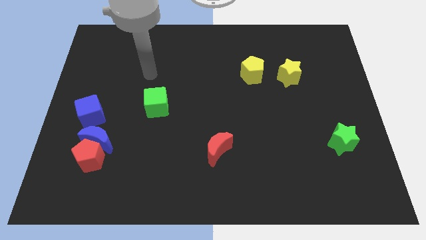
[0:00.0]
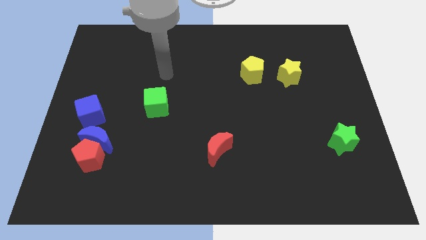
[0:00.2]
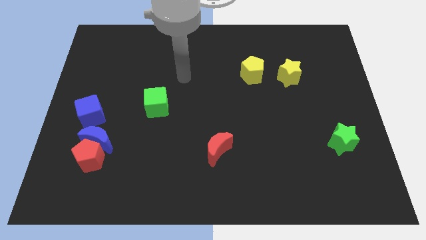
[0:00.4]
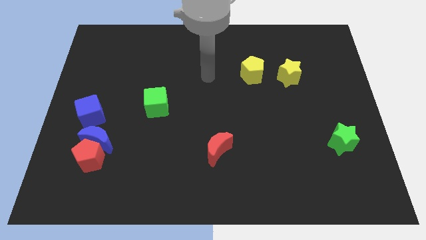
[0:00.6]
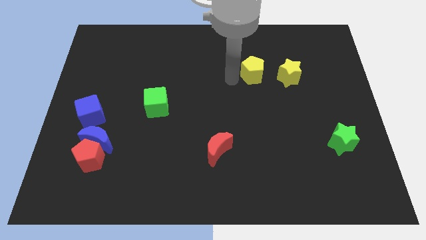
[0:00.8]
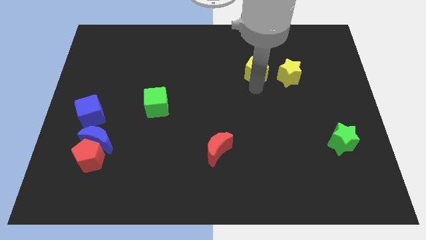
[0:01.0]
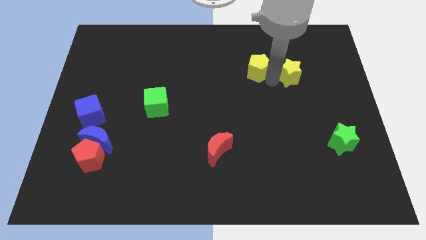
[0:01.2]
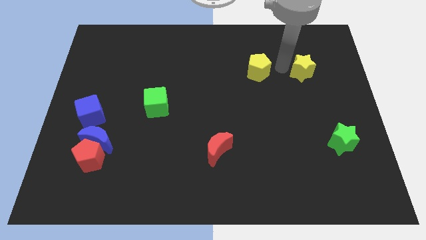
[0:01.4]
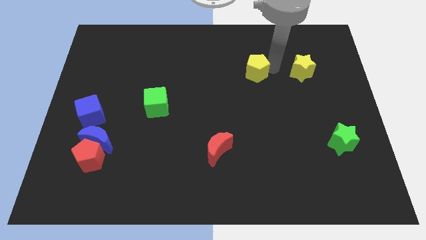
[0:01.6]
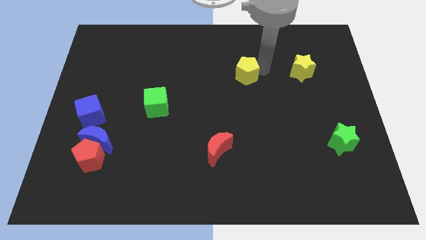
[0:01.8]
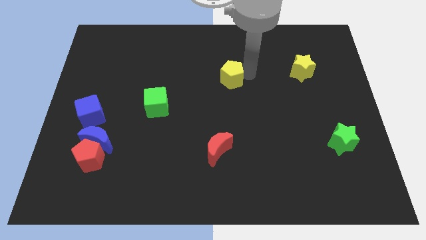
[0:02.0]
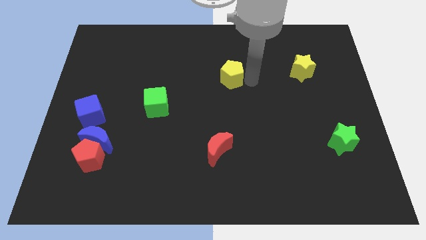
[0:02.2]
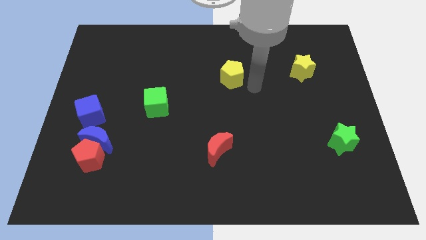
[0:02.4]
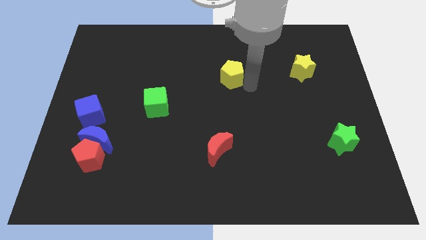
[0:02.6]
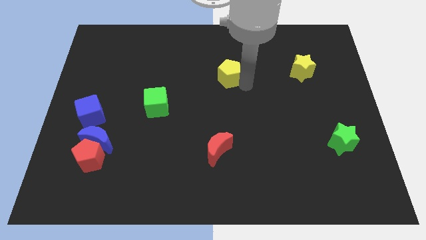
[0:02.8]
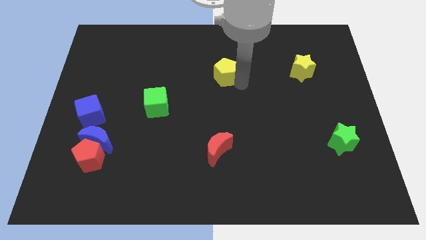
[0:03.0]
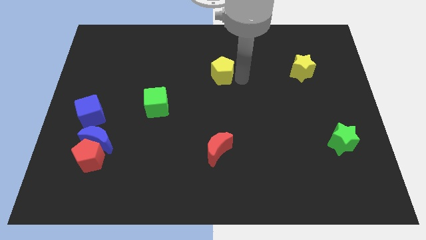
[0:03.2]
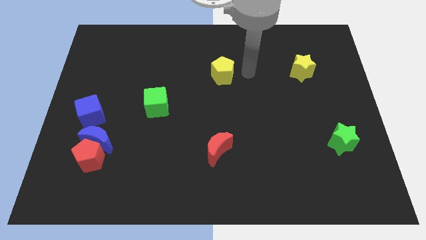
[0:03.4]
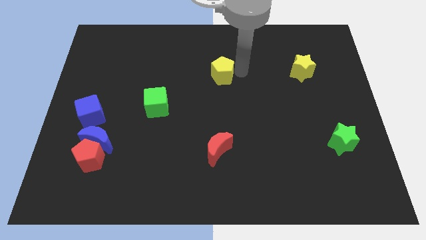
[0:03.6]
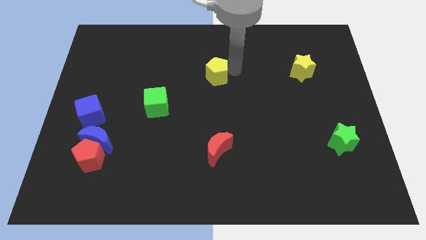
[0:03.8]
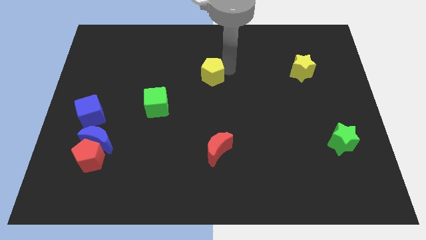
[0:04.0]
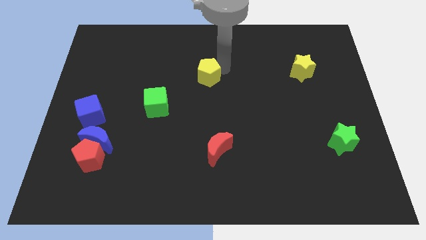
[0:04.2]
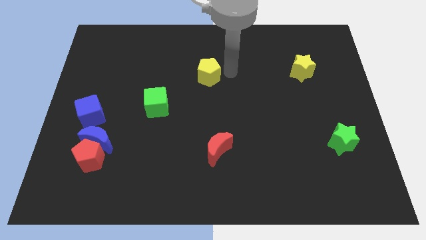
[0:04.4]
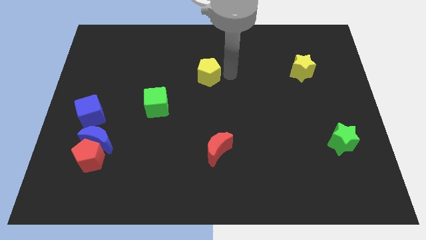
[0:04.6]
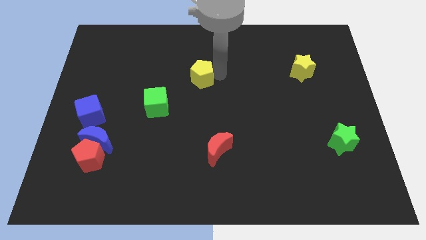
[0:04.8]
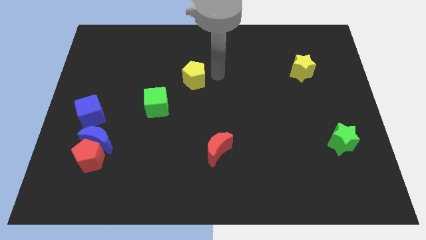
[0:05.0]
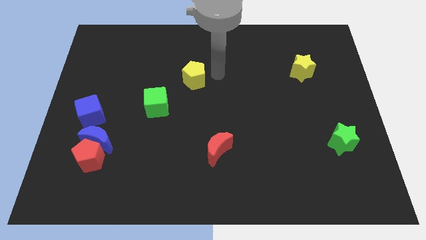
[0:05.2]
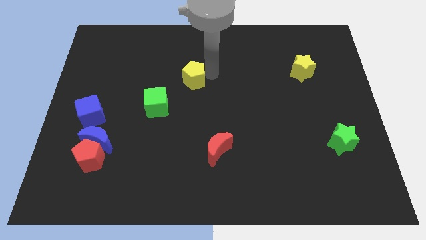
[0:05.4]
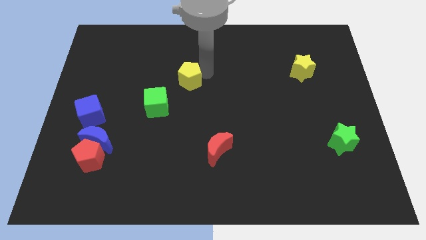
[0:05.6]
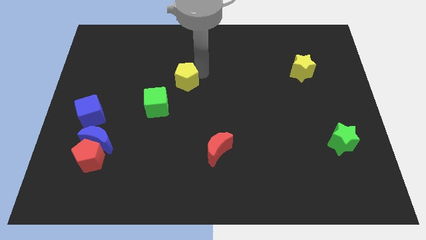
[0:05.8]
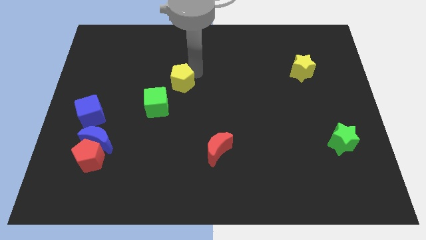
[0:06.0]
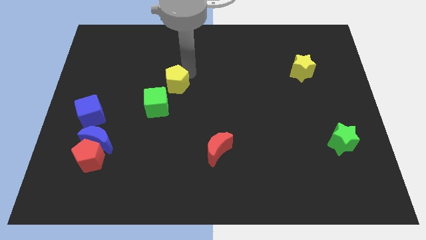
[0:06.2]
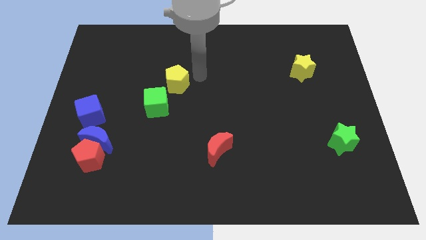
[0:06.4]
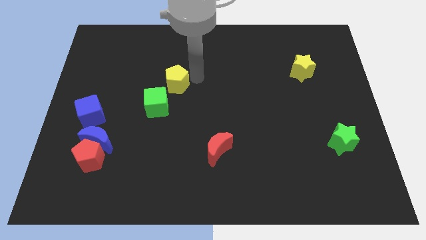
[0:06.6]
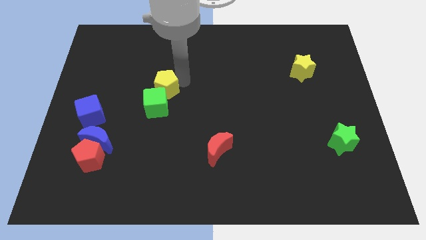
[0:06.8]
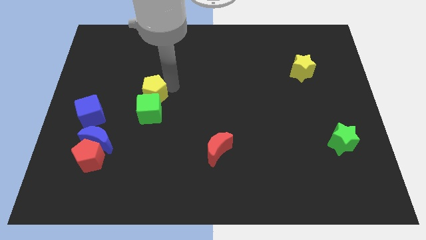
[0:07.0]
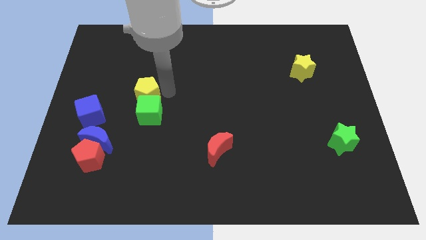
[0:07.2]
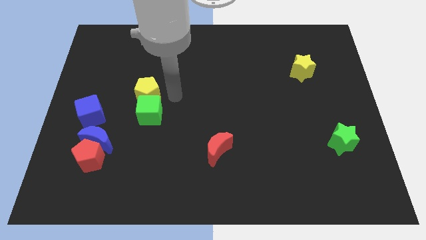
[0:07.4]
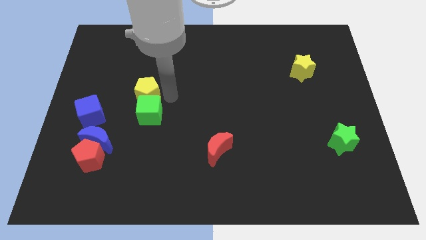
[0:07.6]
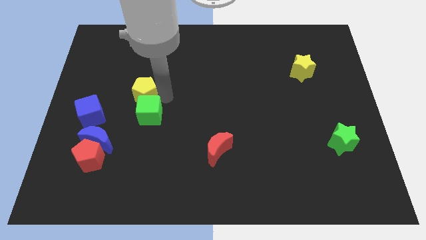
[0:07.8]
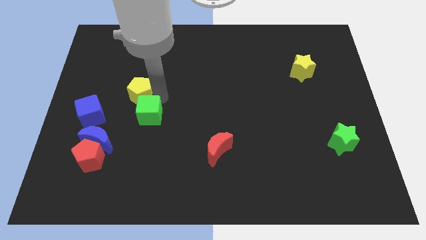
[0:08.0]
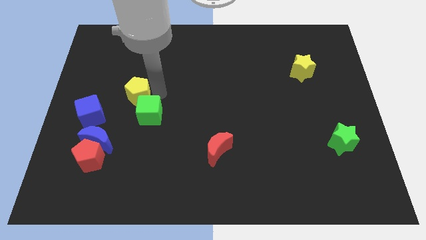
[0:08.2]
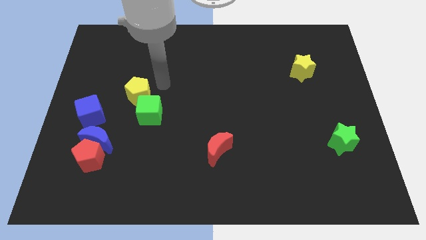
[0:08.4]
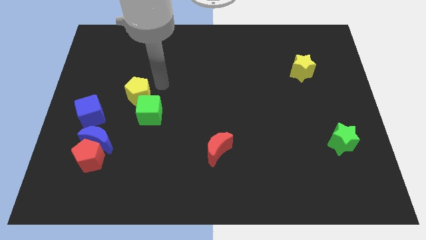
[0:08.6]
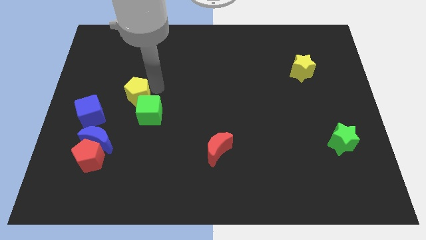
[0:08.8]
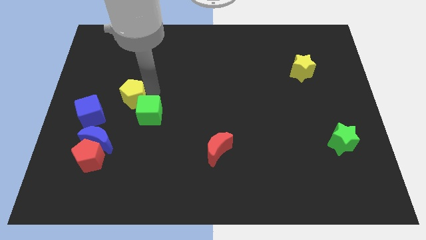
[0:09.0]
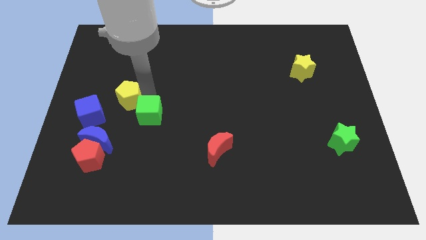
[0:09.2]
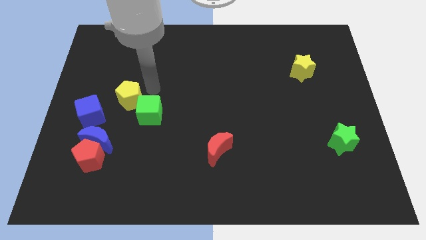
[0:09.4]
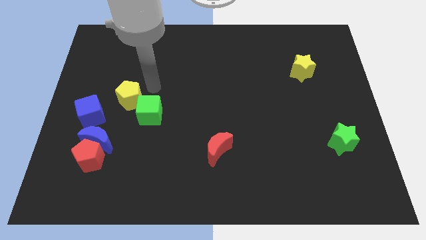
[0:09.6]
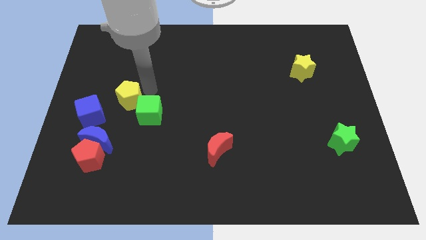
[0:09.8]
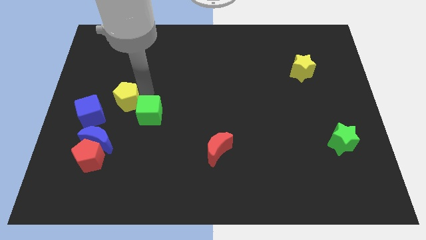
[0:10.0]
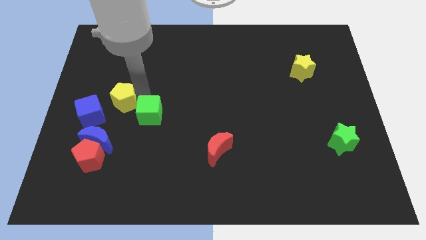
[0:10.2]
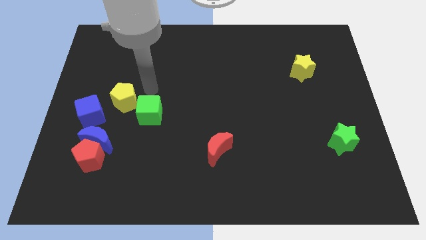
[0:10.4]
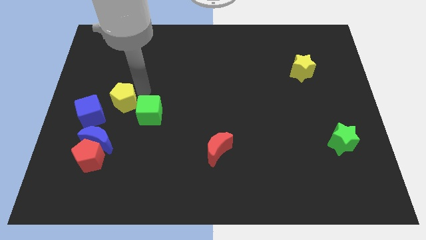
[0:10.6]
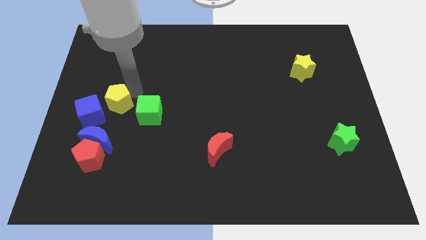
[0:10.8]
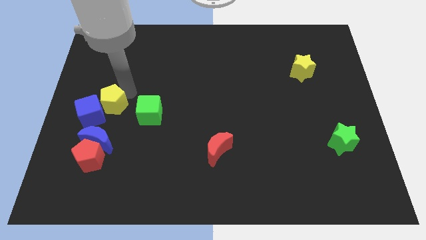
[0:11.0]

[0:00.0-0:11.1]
put the yellow pentagon close to the blue cube

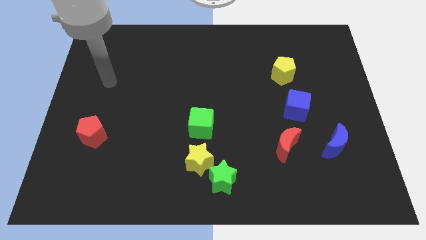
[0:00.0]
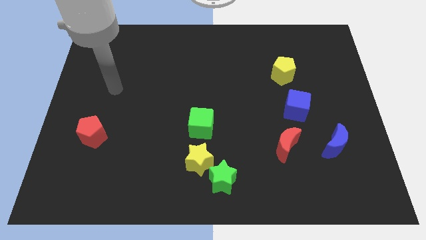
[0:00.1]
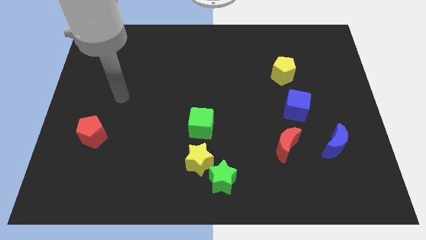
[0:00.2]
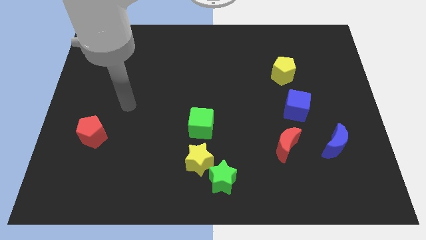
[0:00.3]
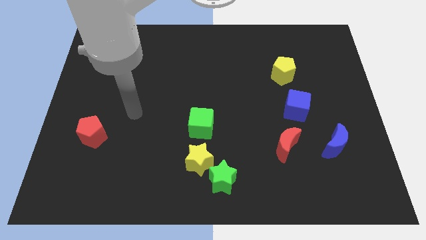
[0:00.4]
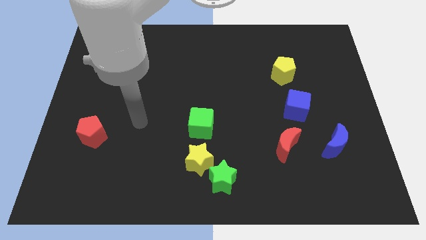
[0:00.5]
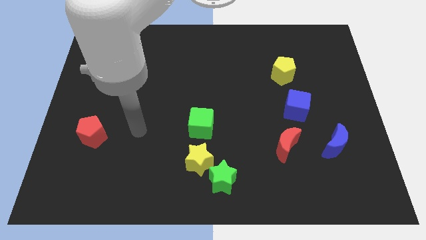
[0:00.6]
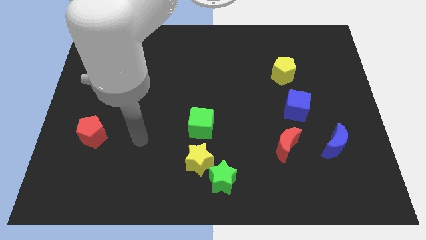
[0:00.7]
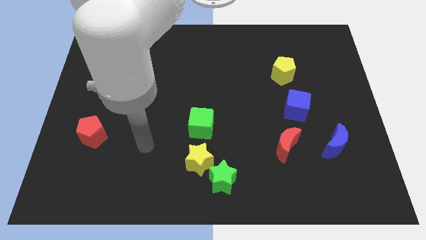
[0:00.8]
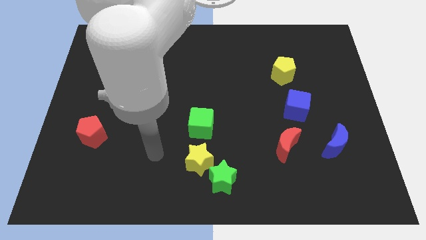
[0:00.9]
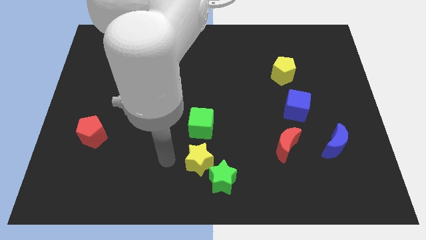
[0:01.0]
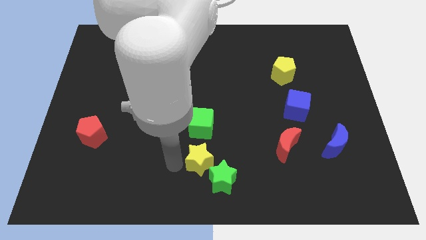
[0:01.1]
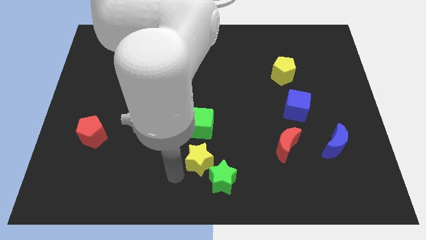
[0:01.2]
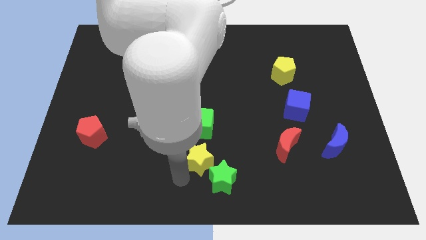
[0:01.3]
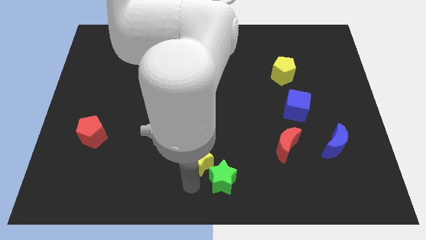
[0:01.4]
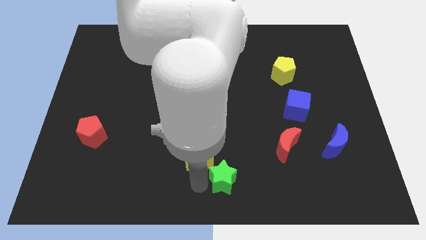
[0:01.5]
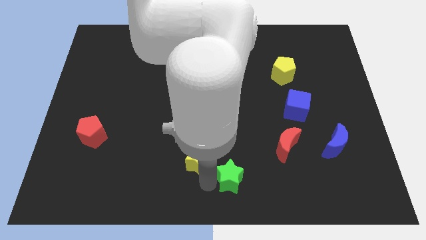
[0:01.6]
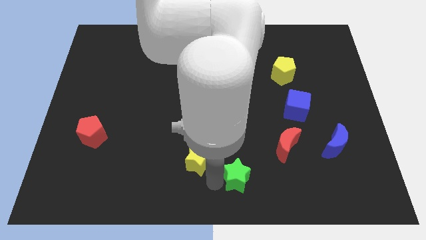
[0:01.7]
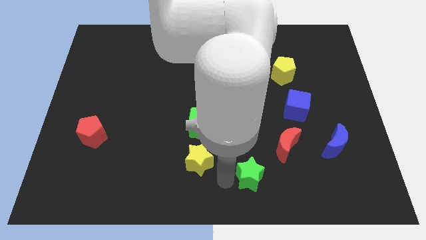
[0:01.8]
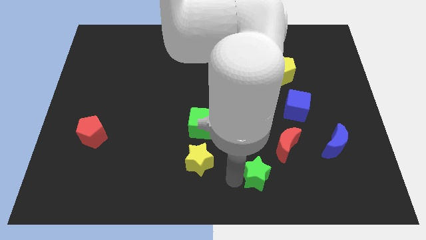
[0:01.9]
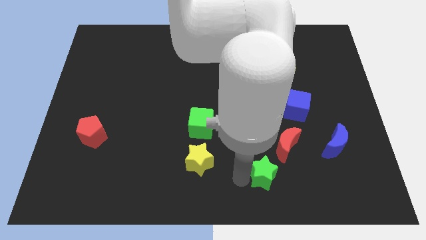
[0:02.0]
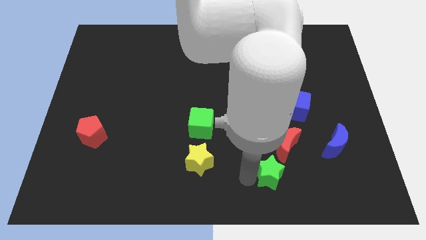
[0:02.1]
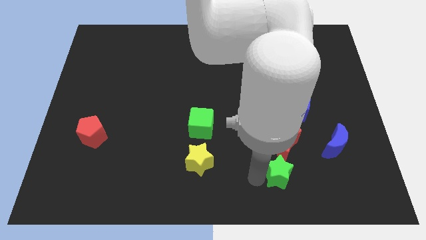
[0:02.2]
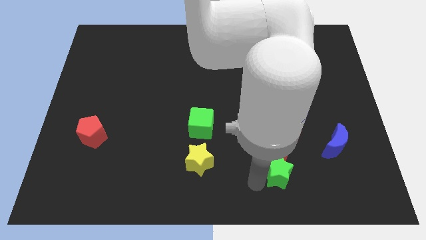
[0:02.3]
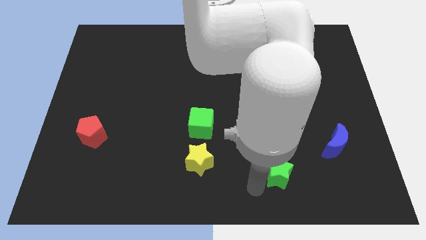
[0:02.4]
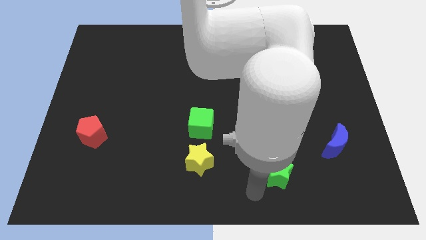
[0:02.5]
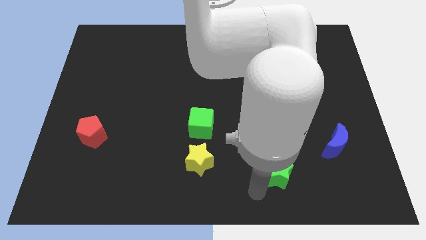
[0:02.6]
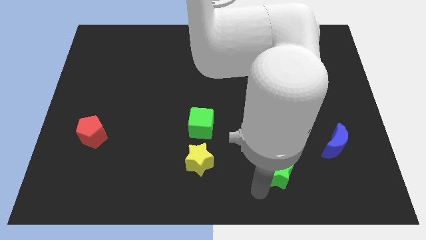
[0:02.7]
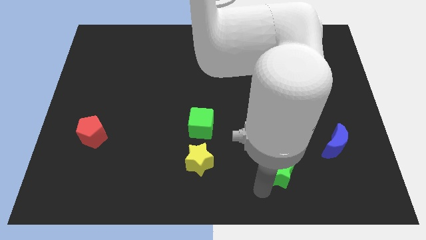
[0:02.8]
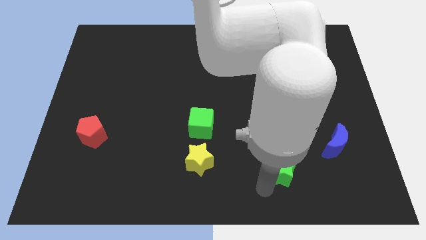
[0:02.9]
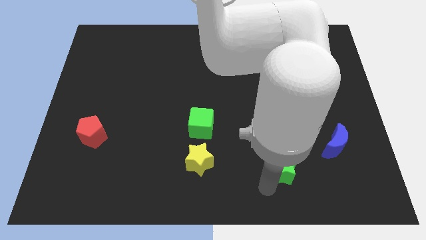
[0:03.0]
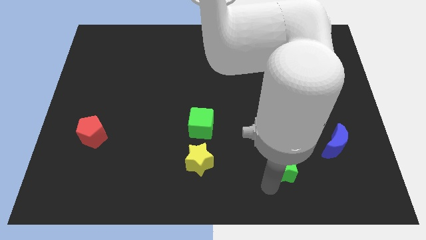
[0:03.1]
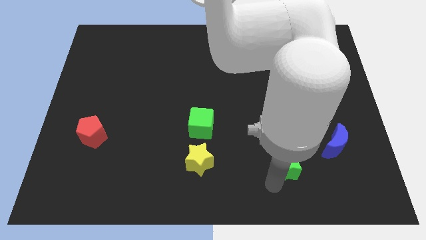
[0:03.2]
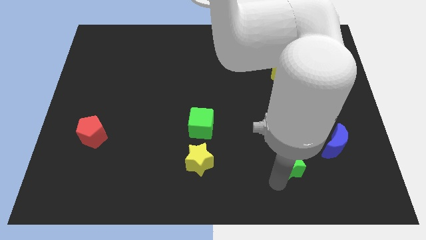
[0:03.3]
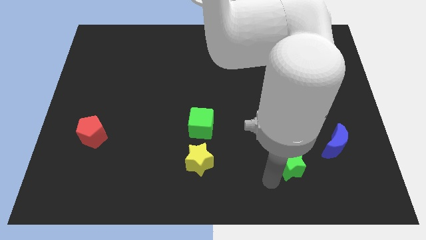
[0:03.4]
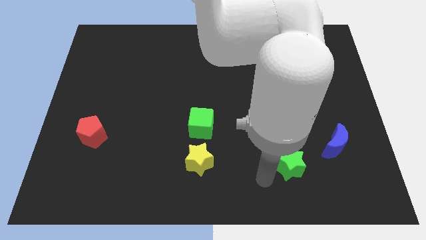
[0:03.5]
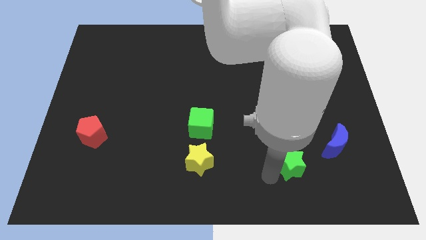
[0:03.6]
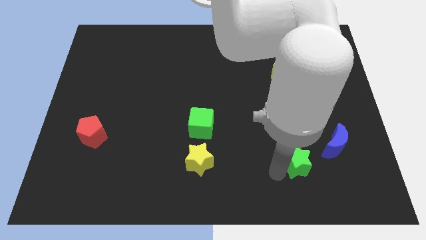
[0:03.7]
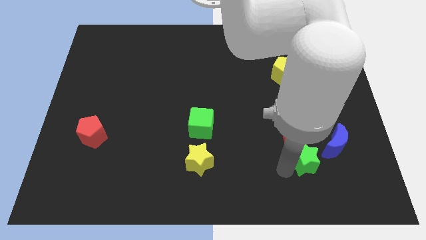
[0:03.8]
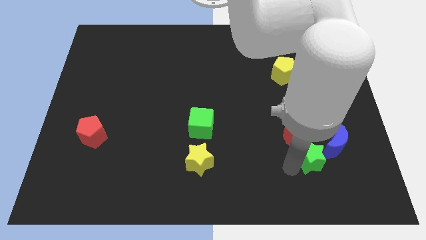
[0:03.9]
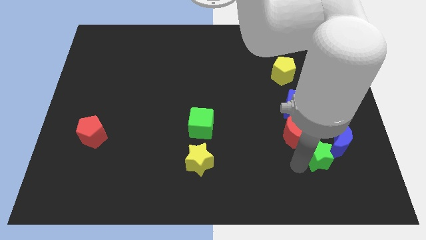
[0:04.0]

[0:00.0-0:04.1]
put the green star towards the blue moon
